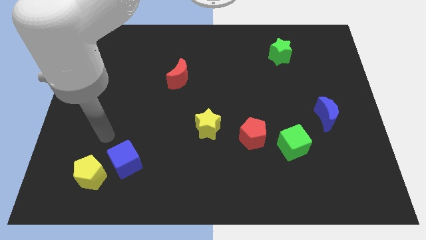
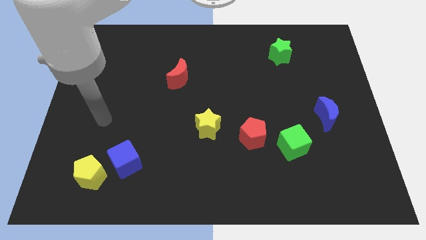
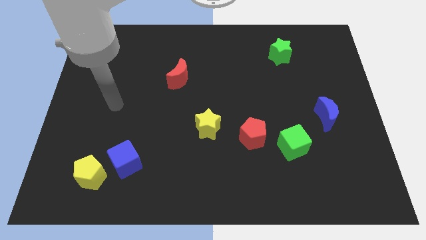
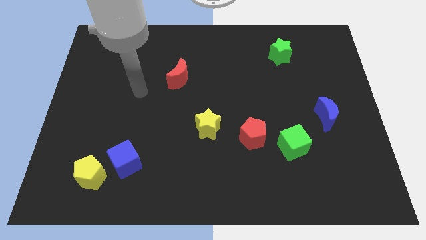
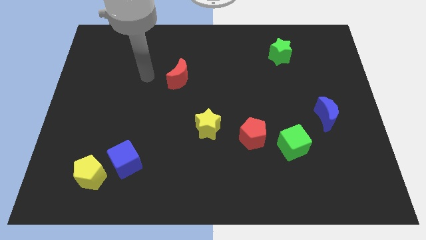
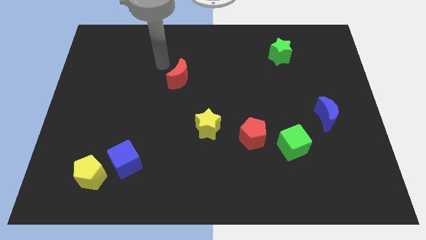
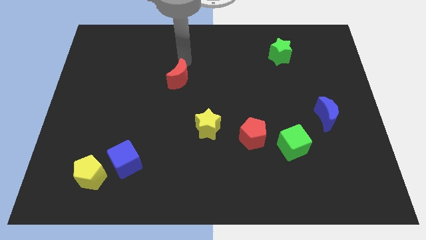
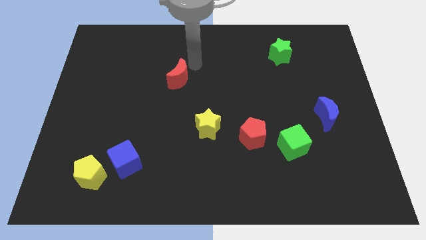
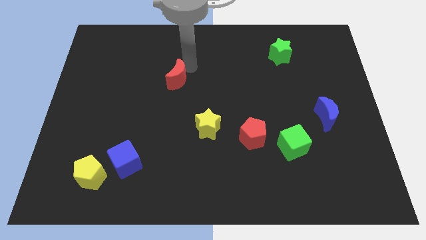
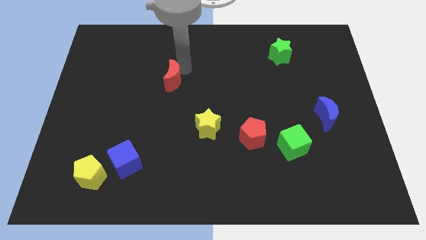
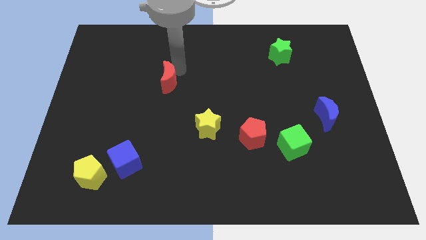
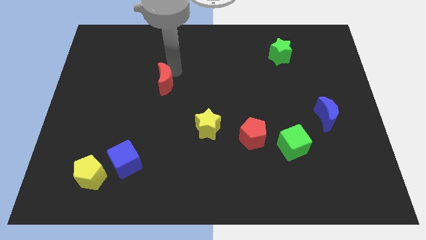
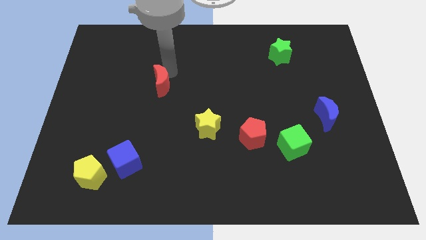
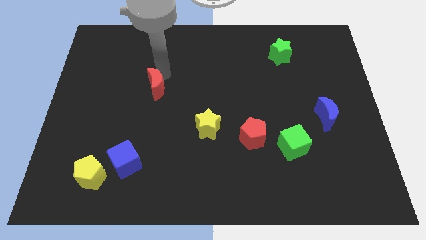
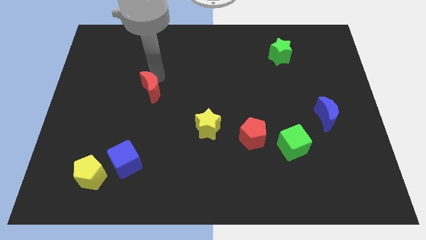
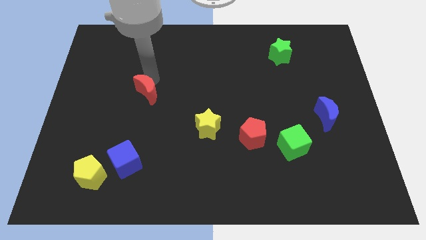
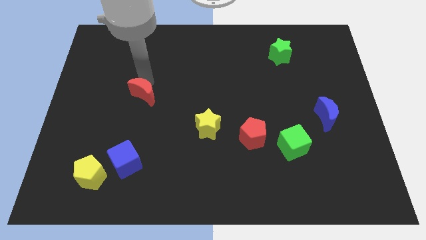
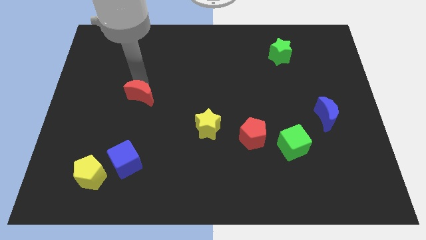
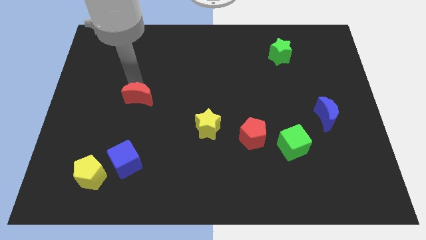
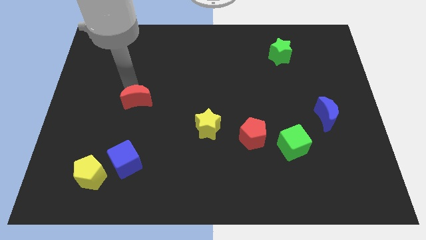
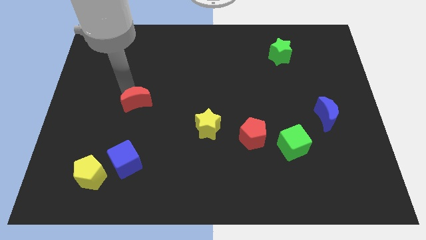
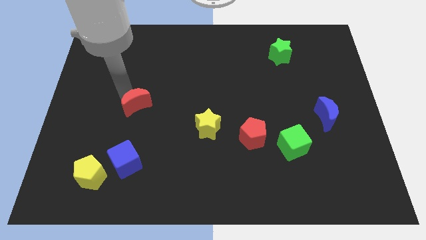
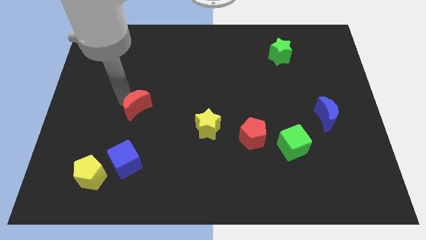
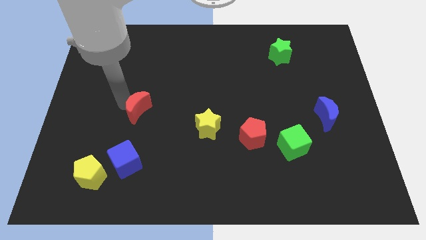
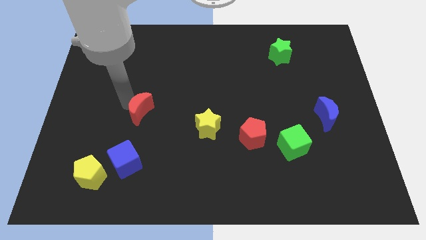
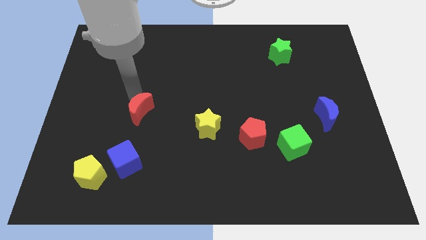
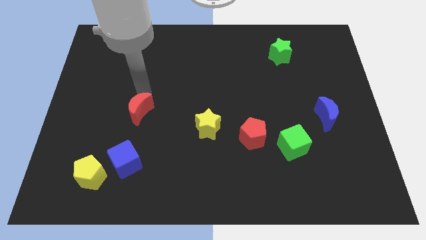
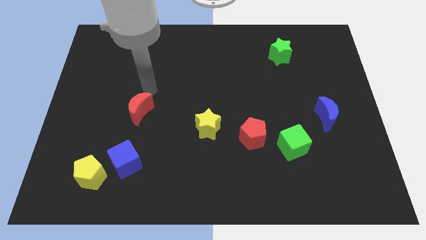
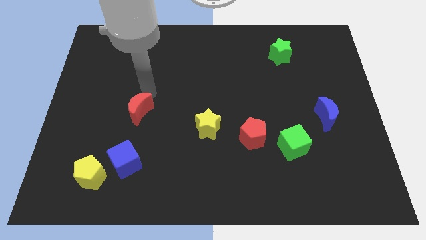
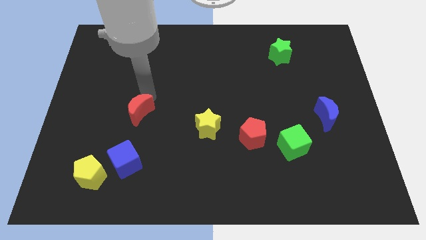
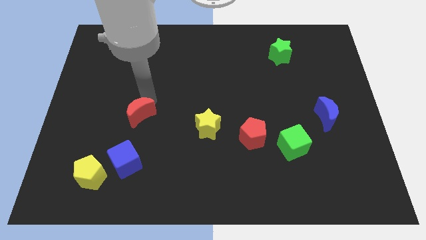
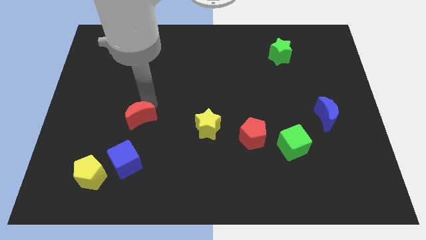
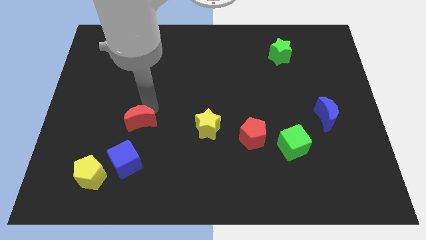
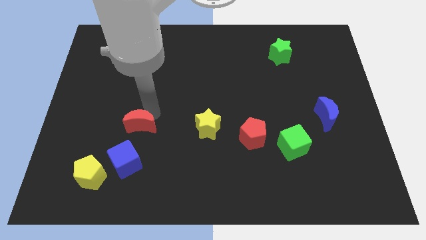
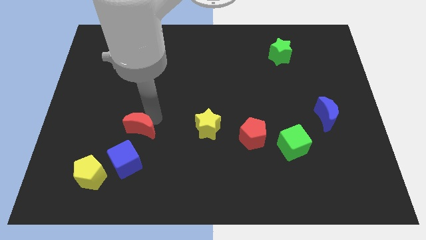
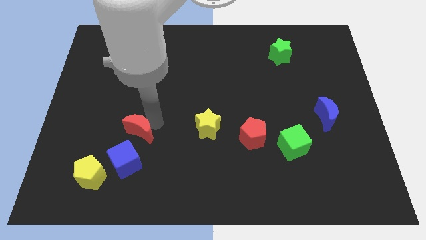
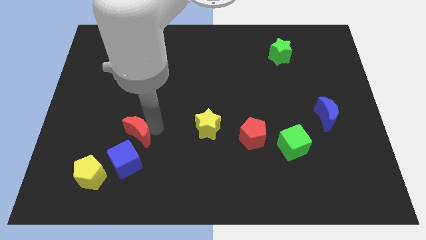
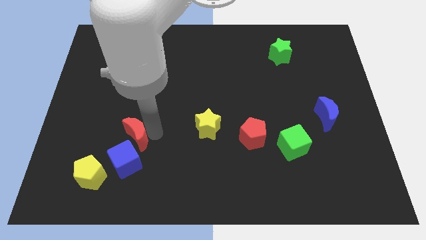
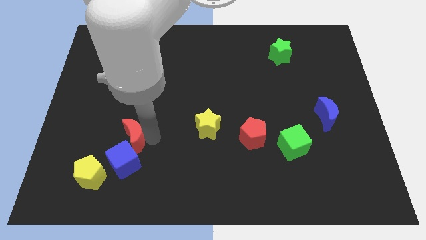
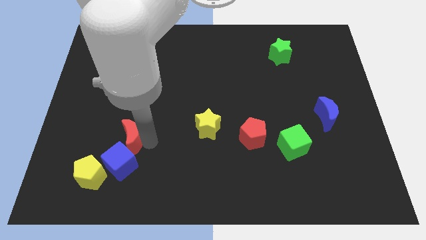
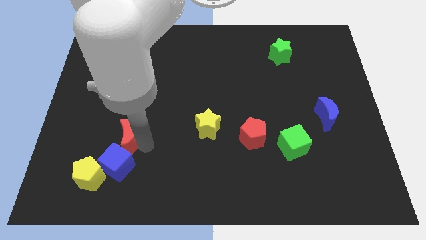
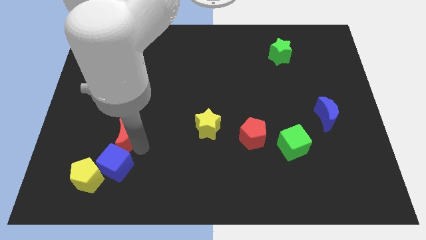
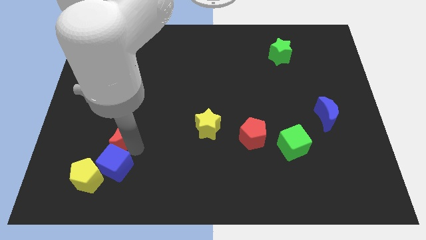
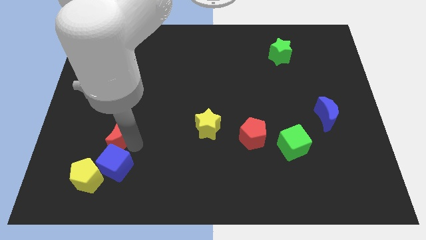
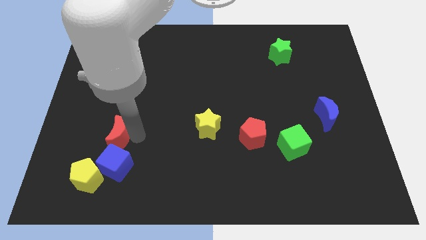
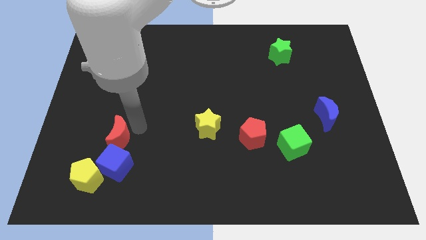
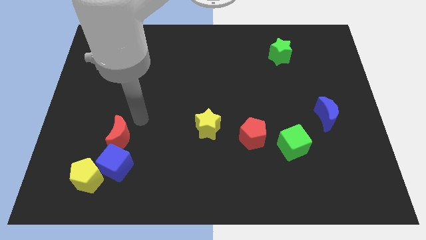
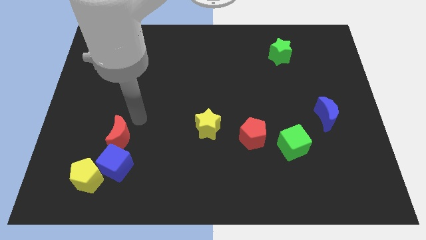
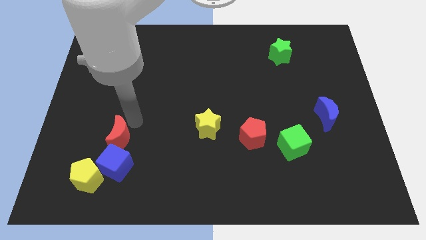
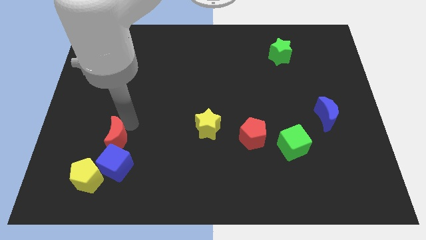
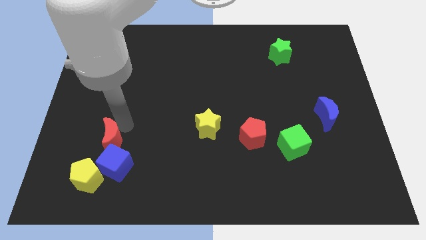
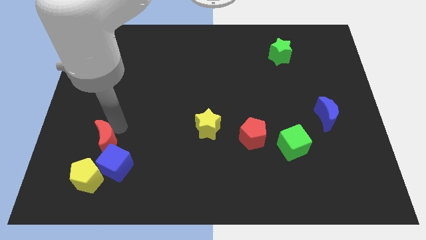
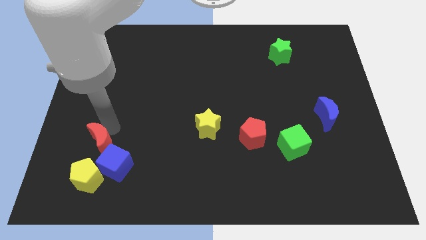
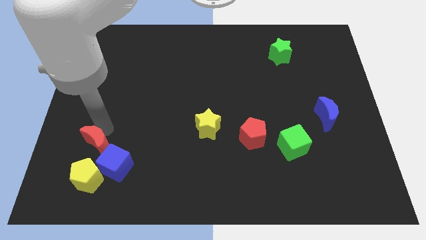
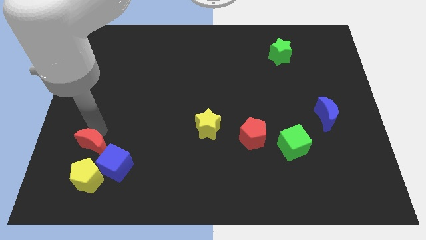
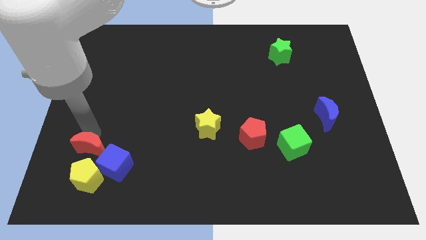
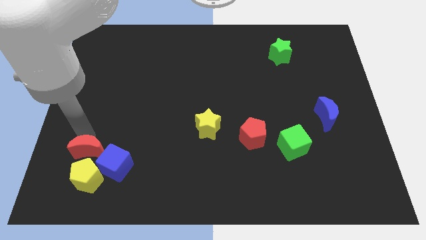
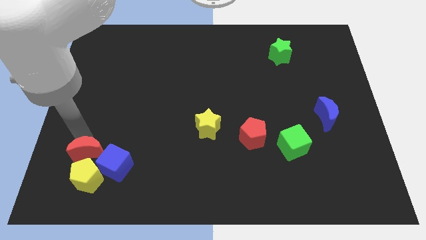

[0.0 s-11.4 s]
push the red moon to the yellow pentagon
